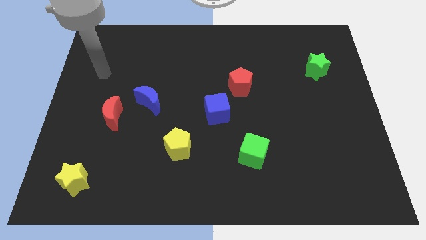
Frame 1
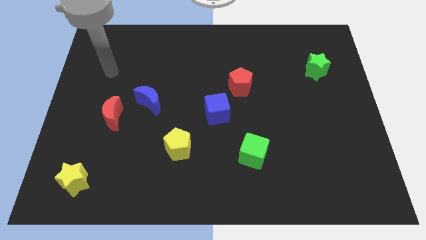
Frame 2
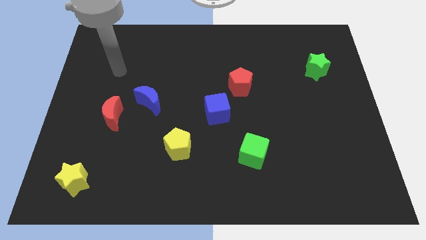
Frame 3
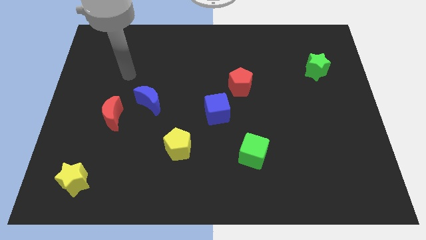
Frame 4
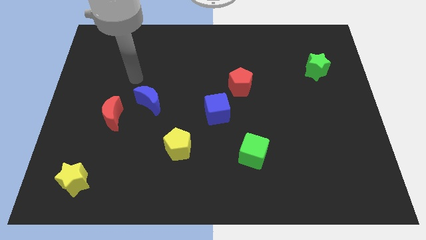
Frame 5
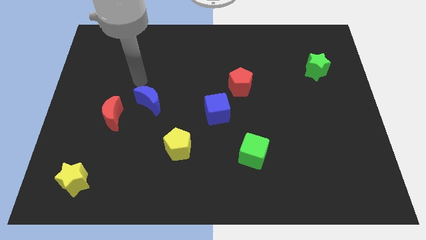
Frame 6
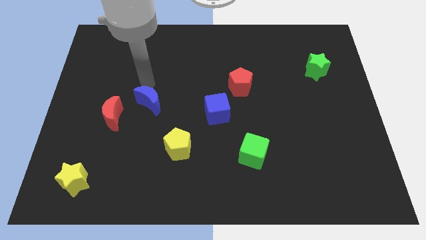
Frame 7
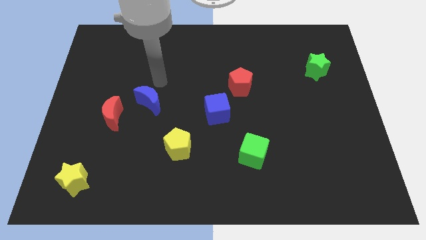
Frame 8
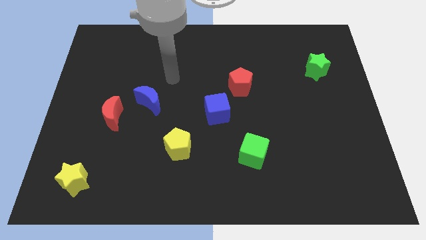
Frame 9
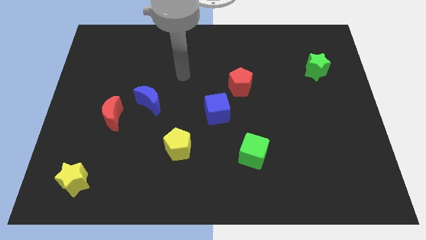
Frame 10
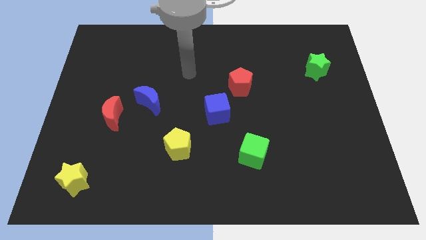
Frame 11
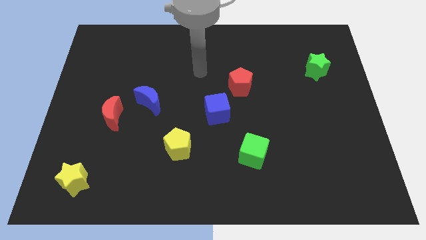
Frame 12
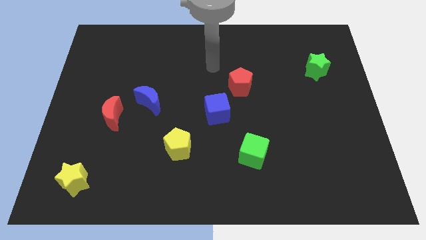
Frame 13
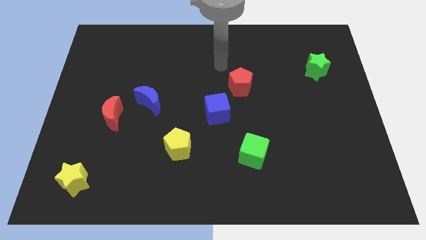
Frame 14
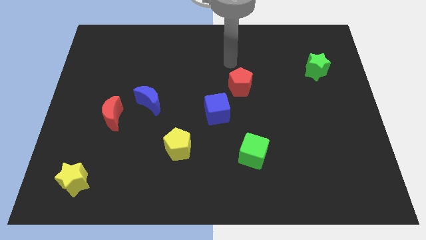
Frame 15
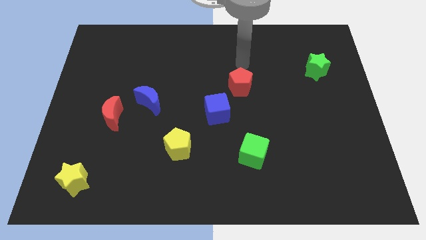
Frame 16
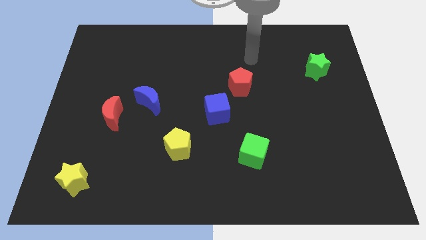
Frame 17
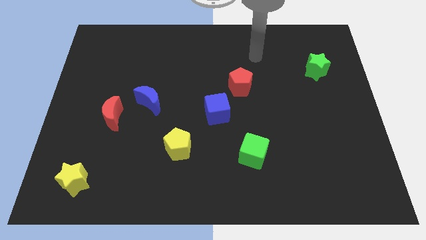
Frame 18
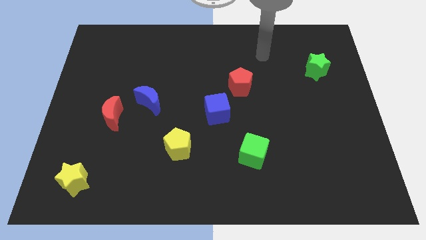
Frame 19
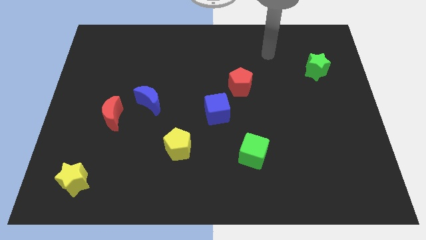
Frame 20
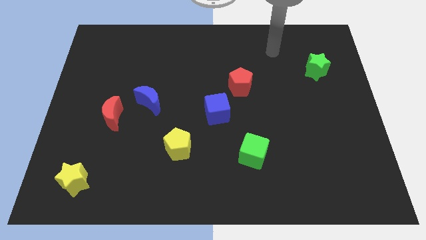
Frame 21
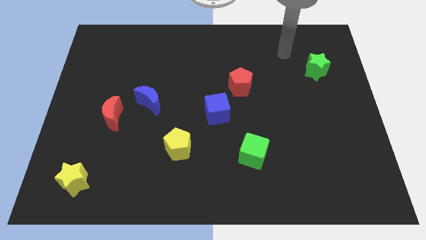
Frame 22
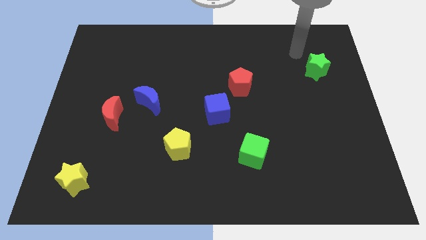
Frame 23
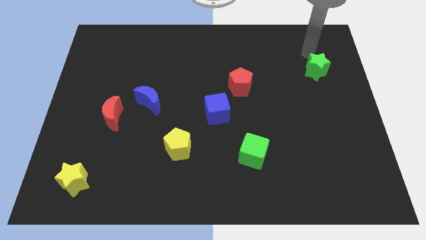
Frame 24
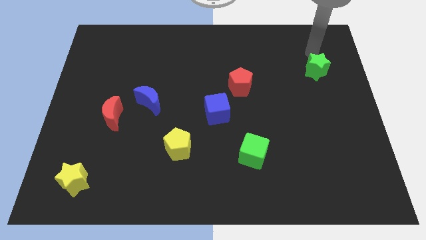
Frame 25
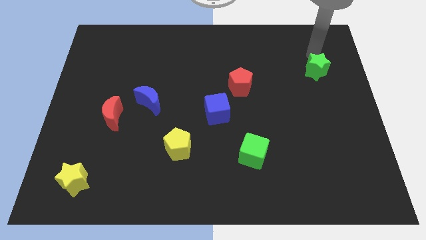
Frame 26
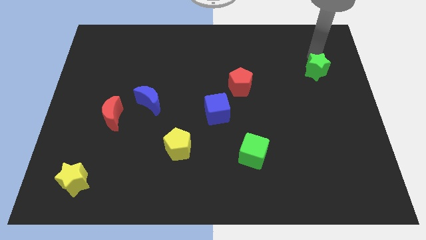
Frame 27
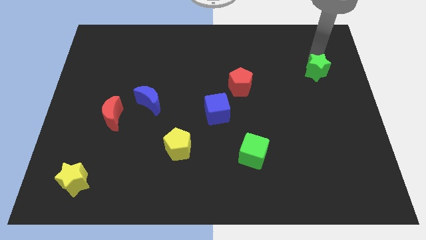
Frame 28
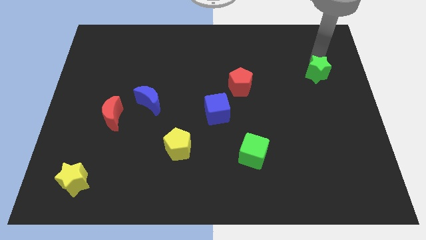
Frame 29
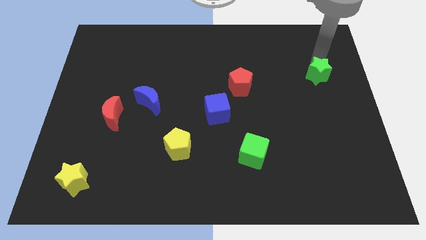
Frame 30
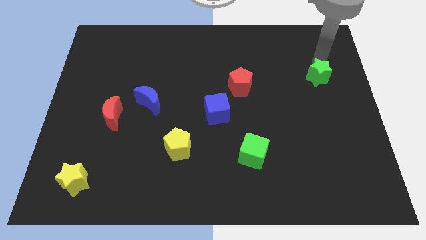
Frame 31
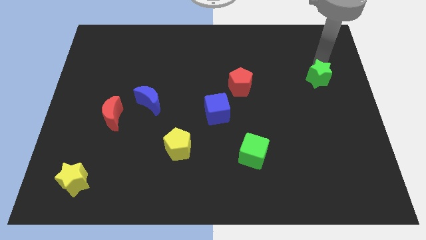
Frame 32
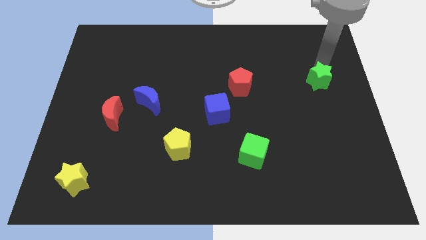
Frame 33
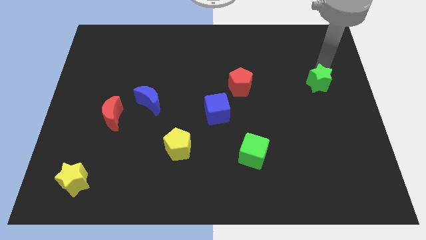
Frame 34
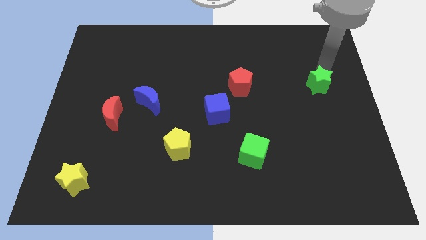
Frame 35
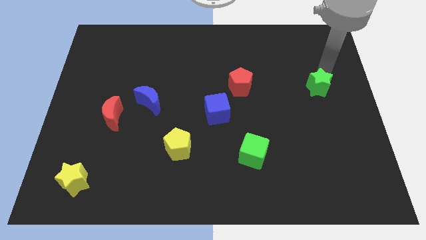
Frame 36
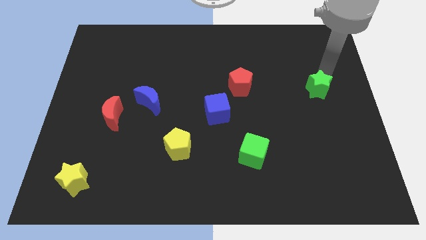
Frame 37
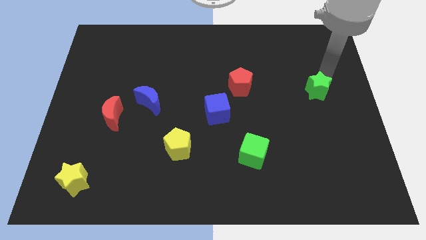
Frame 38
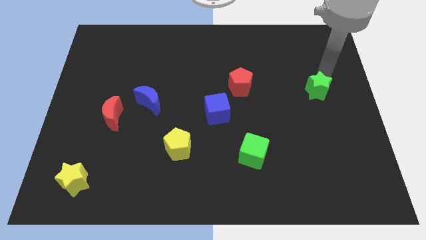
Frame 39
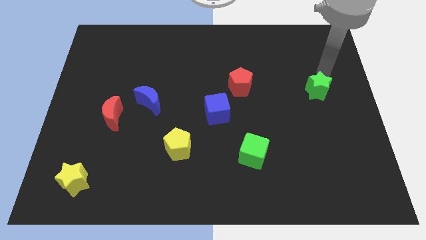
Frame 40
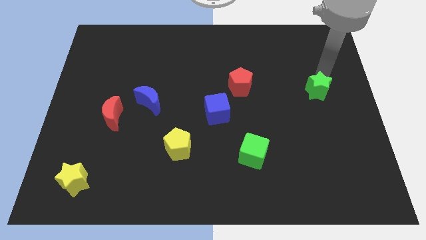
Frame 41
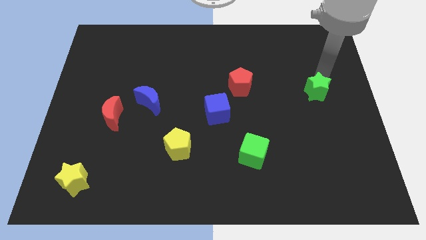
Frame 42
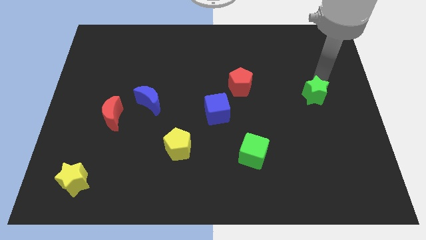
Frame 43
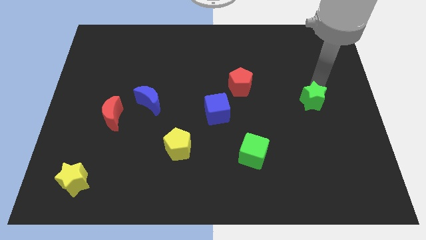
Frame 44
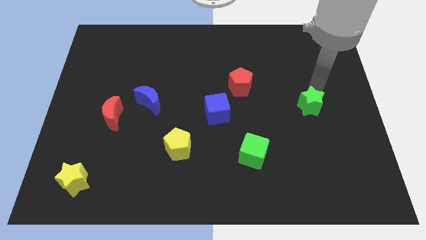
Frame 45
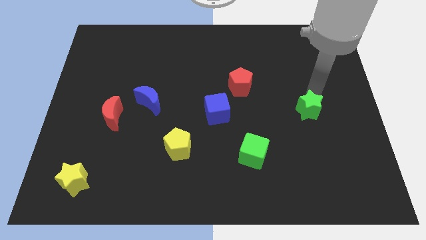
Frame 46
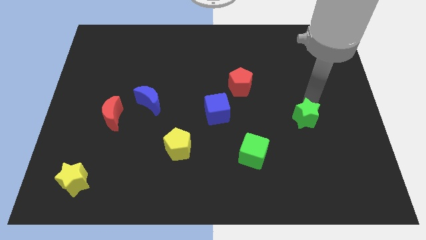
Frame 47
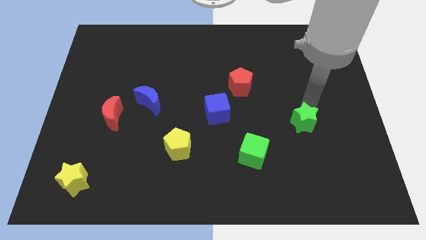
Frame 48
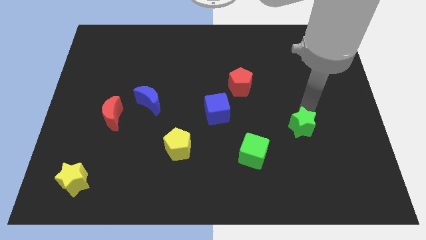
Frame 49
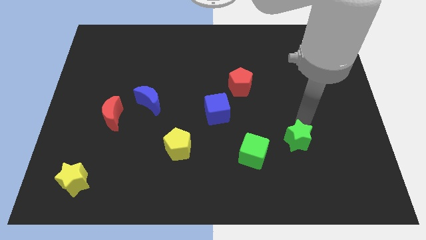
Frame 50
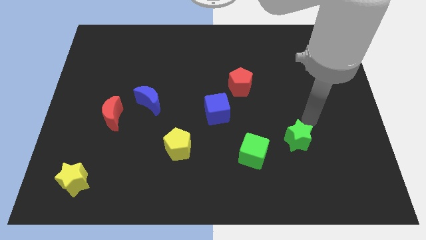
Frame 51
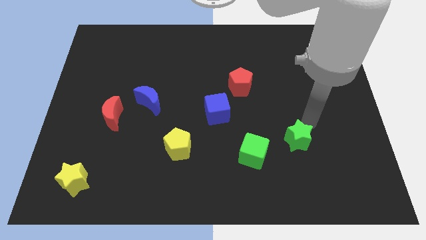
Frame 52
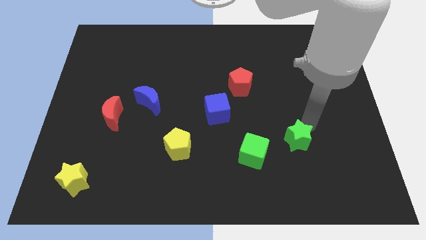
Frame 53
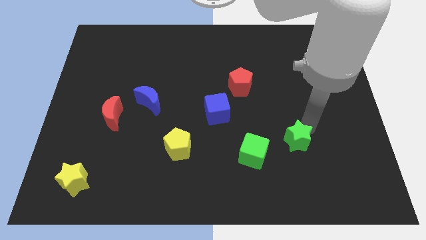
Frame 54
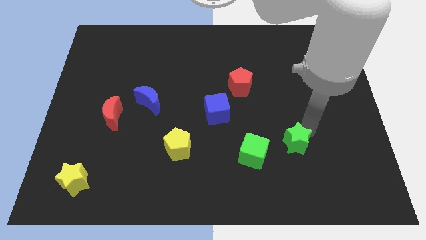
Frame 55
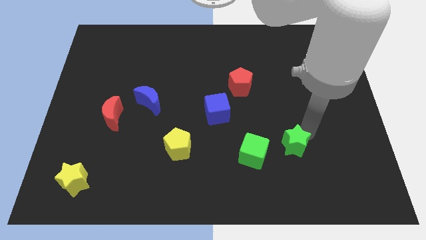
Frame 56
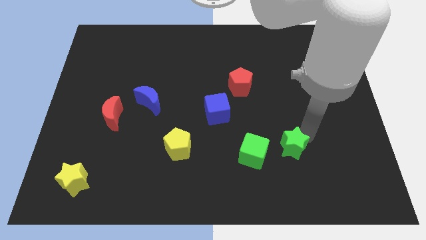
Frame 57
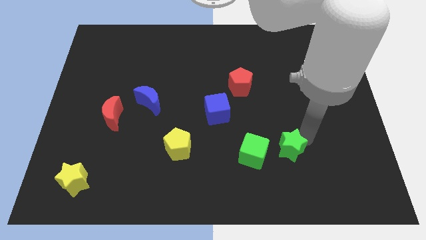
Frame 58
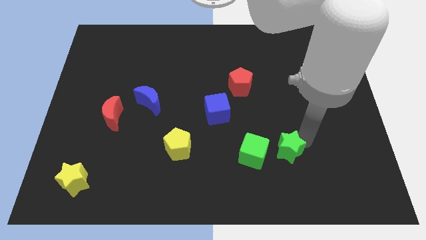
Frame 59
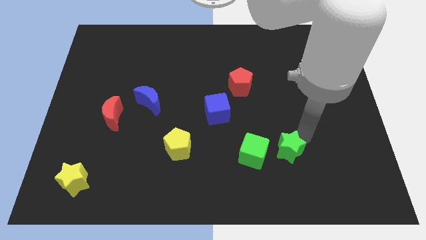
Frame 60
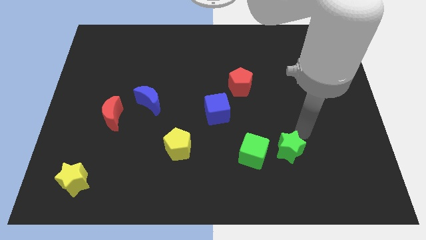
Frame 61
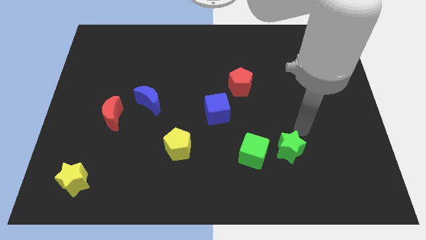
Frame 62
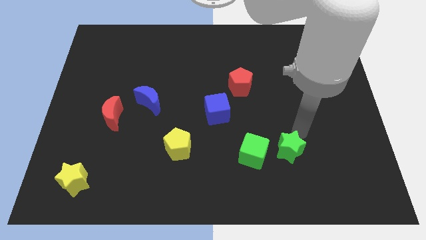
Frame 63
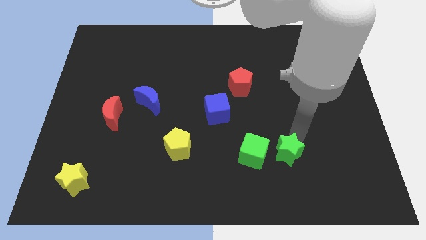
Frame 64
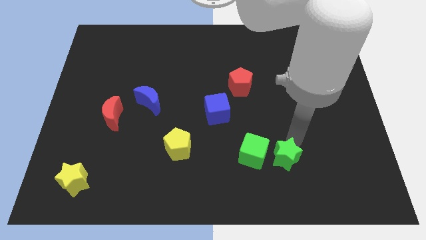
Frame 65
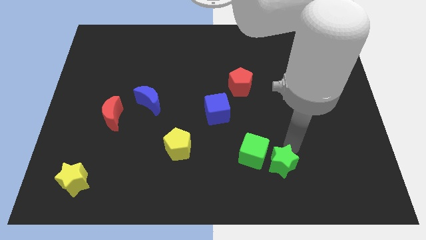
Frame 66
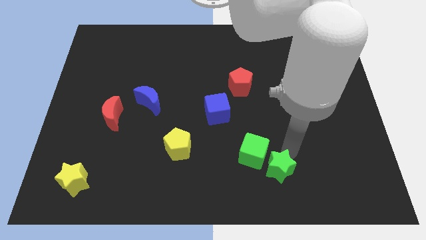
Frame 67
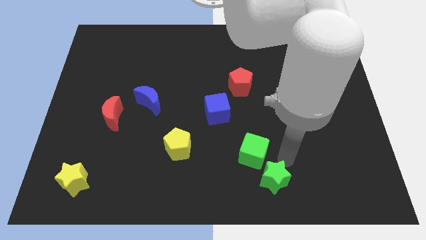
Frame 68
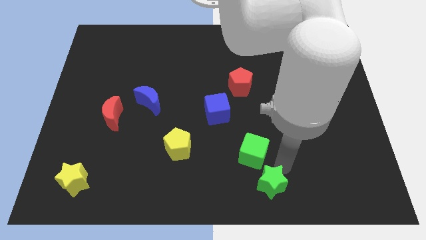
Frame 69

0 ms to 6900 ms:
push the green star to the bottom

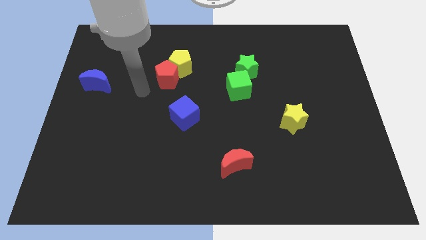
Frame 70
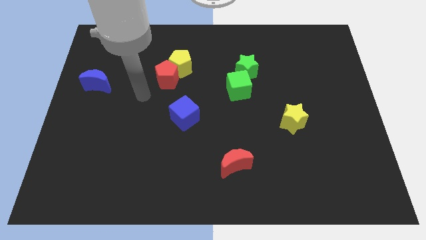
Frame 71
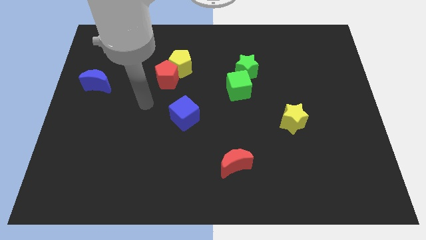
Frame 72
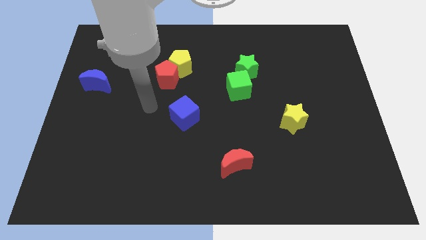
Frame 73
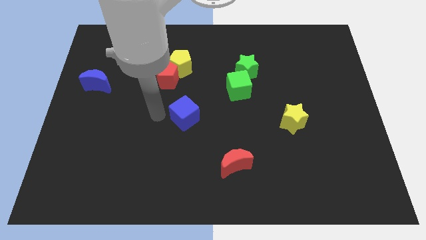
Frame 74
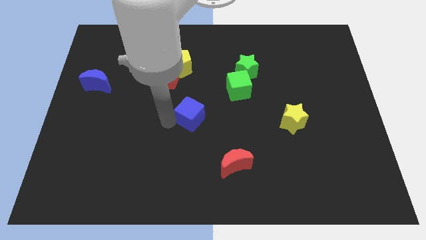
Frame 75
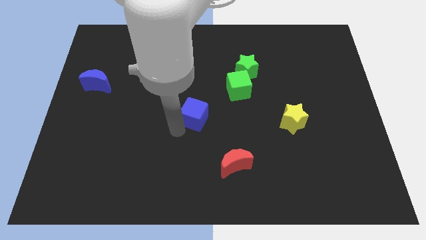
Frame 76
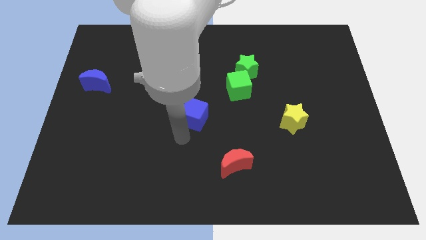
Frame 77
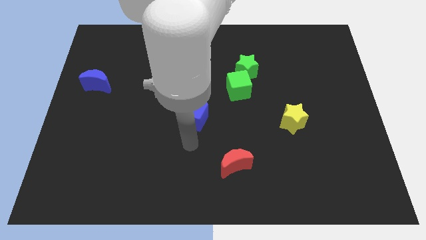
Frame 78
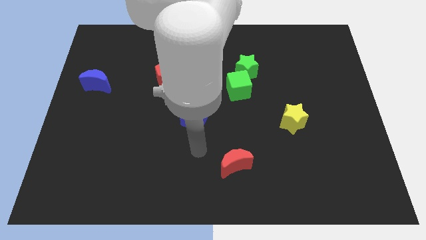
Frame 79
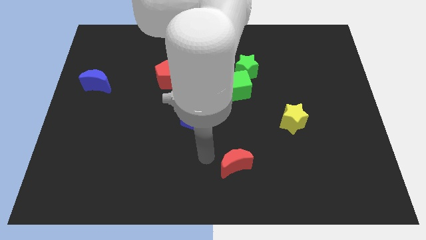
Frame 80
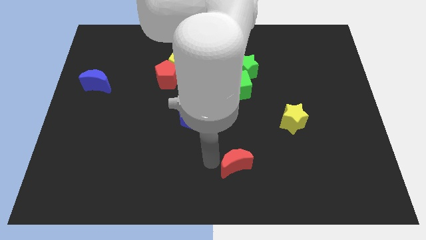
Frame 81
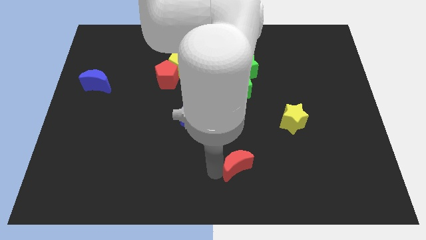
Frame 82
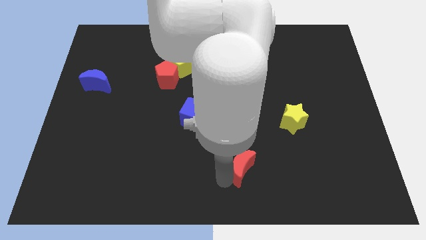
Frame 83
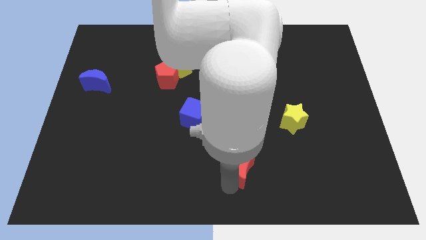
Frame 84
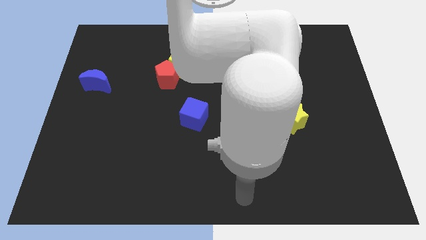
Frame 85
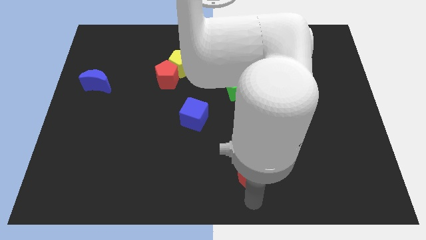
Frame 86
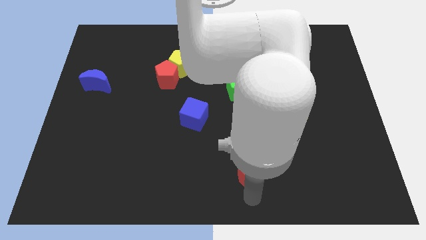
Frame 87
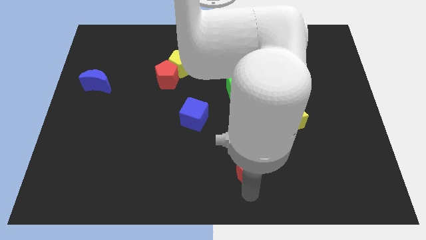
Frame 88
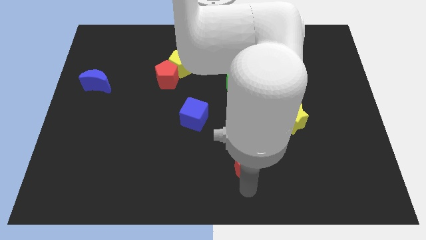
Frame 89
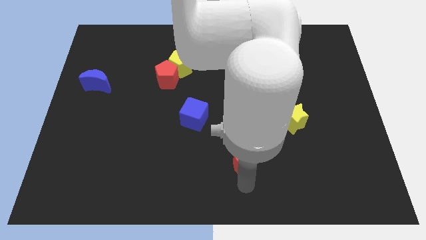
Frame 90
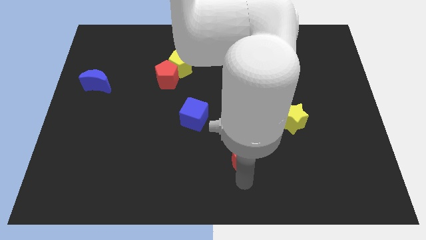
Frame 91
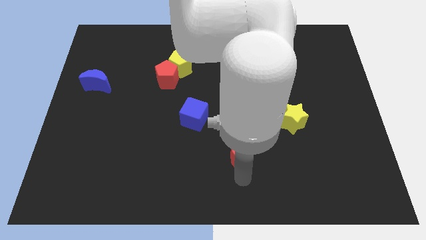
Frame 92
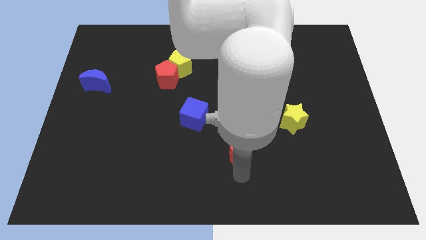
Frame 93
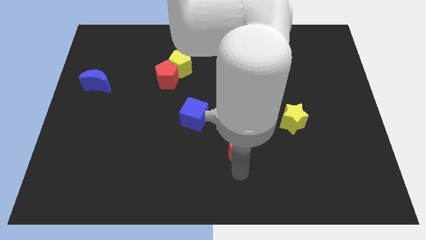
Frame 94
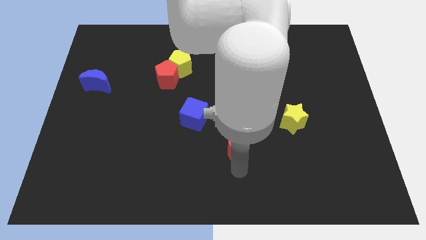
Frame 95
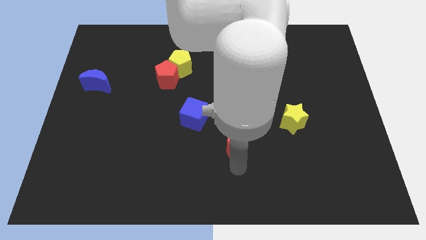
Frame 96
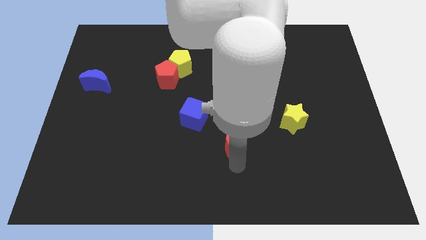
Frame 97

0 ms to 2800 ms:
put the red moon to the center
